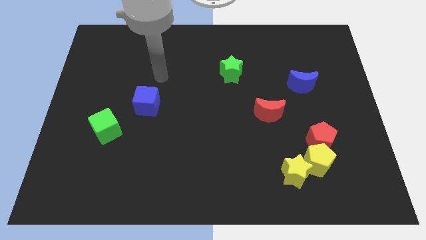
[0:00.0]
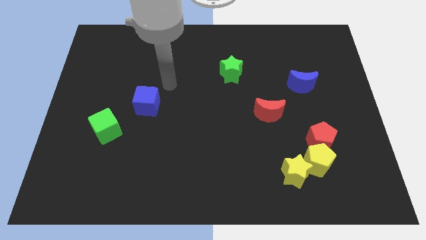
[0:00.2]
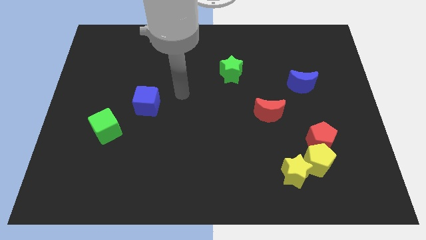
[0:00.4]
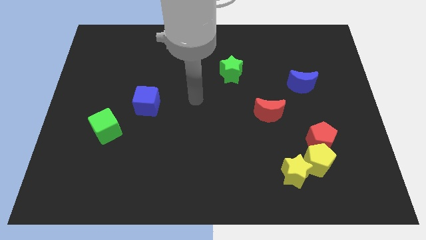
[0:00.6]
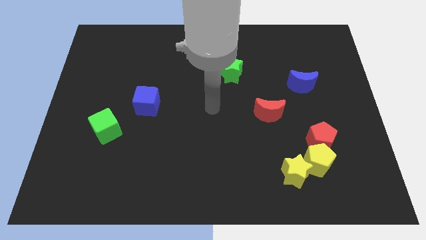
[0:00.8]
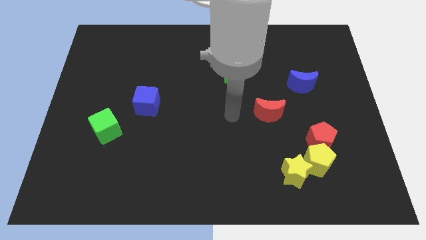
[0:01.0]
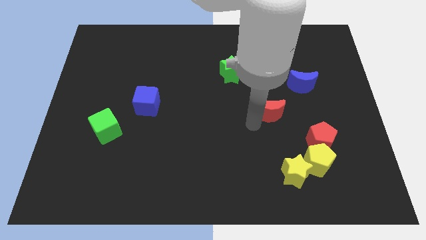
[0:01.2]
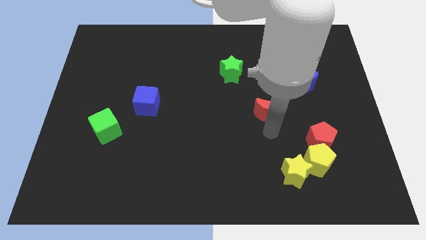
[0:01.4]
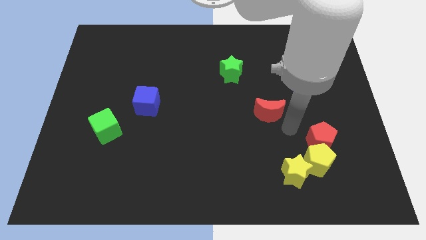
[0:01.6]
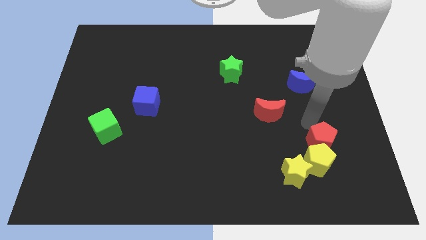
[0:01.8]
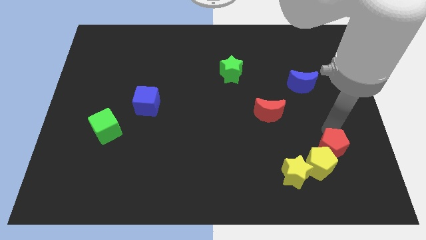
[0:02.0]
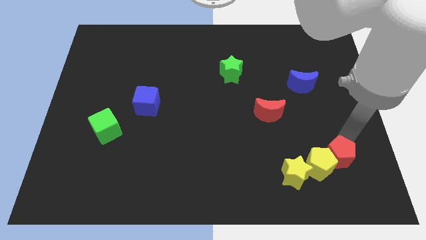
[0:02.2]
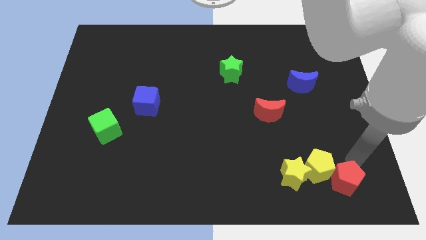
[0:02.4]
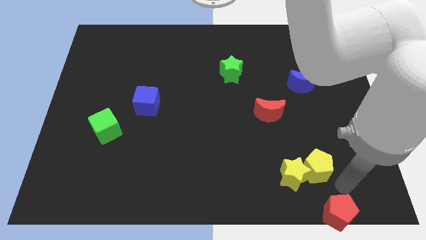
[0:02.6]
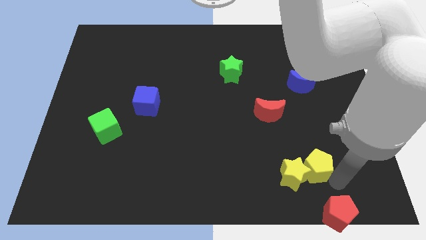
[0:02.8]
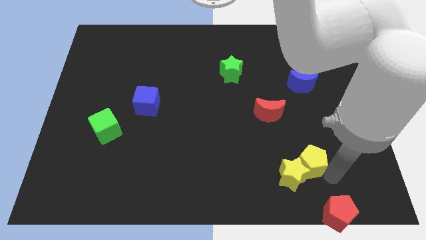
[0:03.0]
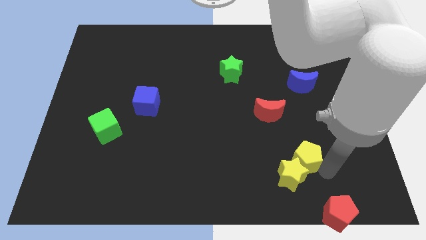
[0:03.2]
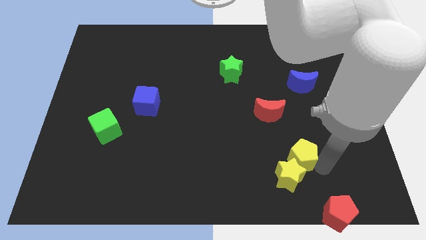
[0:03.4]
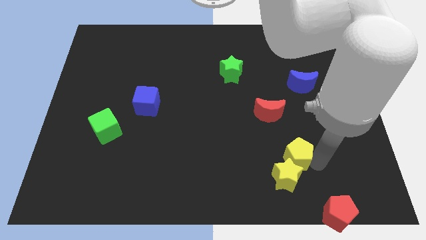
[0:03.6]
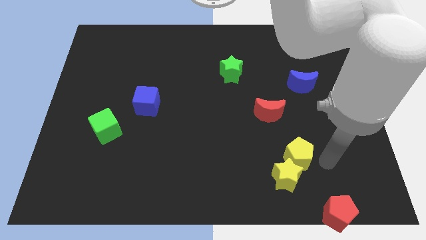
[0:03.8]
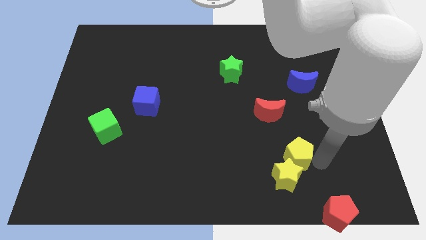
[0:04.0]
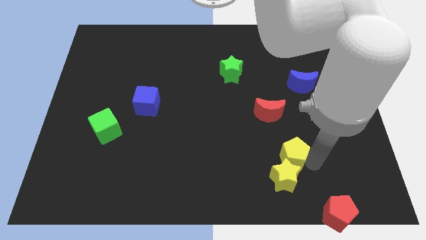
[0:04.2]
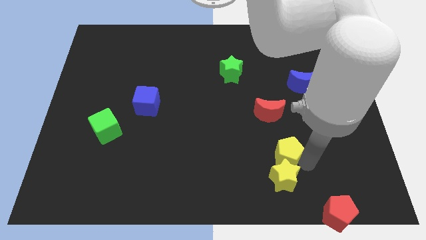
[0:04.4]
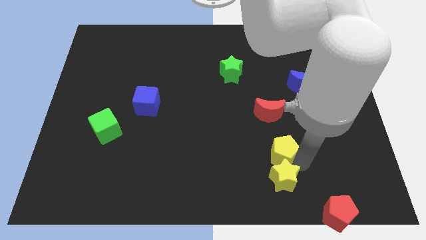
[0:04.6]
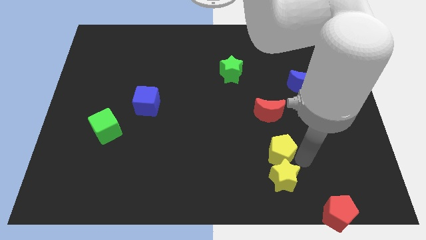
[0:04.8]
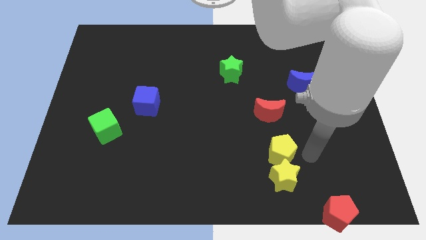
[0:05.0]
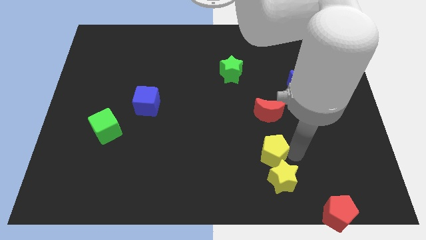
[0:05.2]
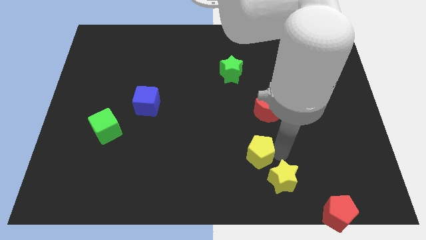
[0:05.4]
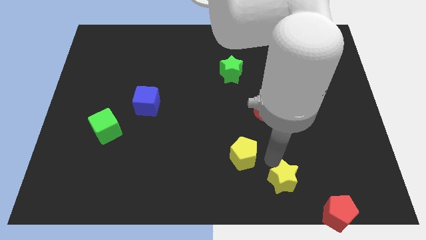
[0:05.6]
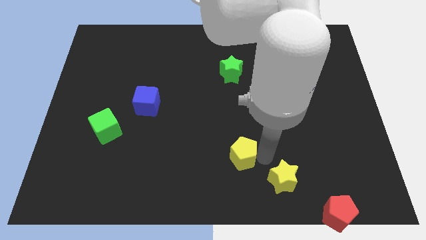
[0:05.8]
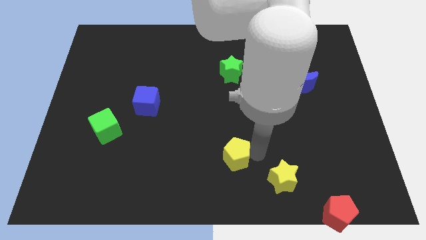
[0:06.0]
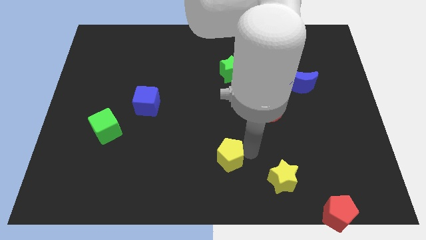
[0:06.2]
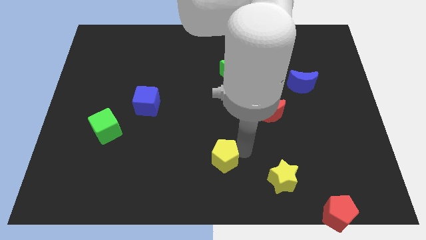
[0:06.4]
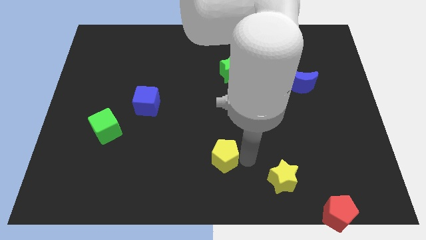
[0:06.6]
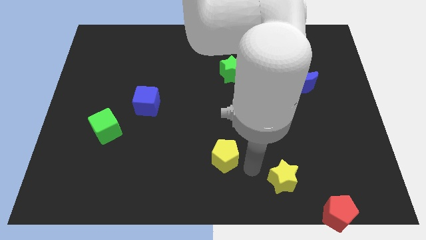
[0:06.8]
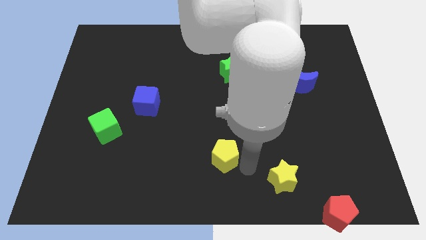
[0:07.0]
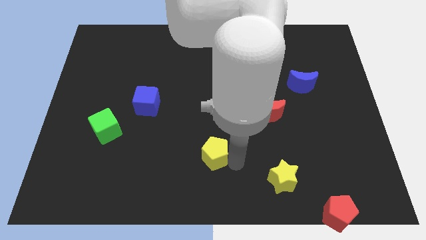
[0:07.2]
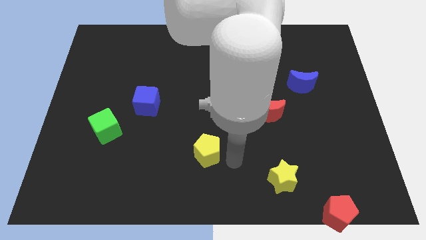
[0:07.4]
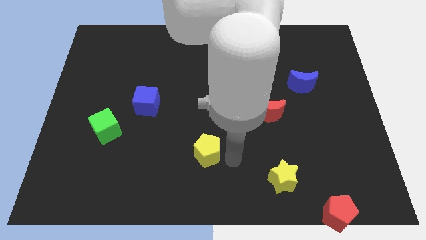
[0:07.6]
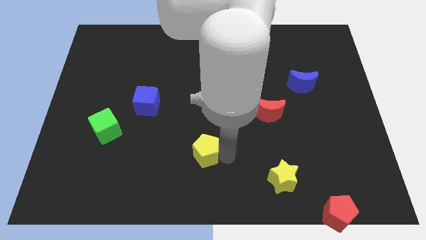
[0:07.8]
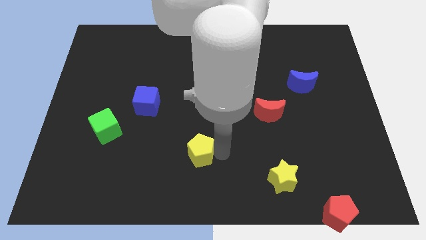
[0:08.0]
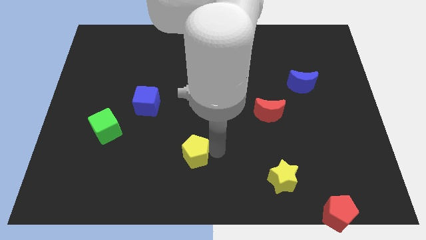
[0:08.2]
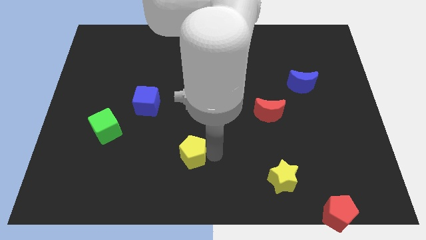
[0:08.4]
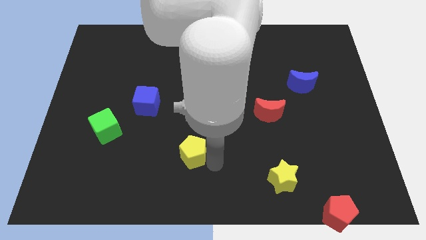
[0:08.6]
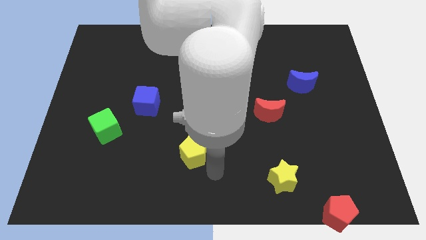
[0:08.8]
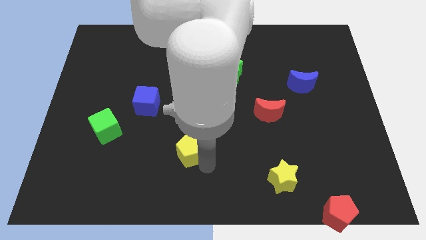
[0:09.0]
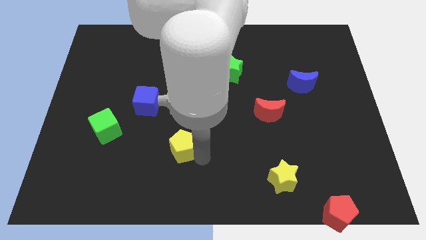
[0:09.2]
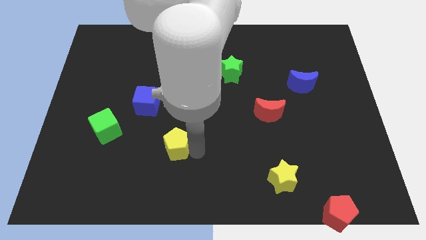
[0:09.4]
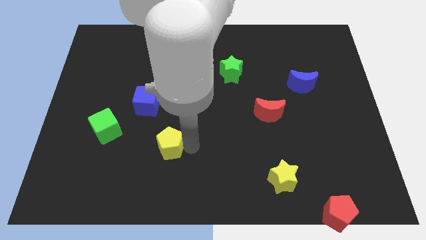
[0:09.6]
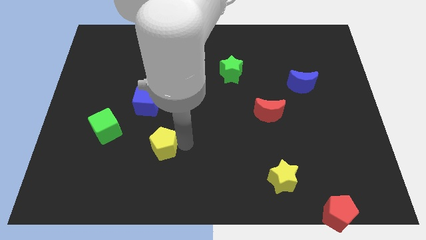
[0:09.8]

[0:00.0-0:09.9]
put the yellow pentagon to the bottom of the blue cube

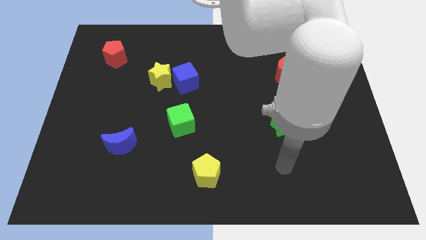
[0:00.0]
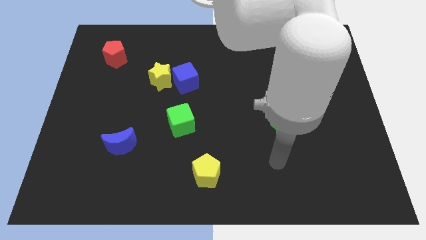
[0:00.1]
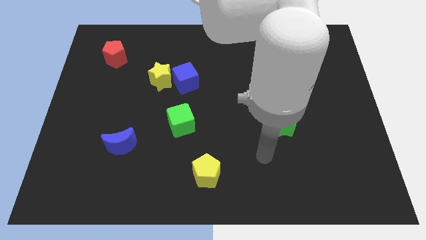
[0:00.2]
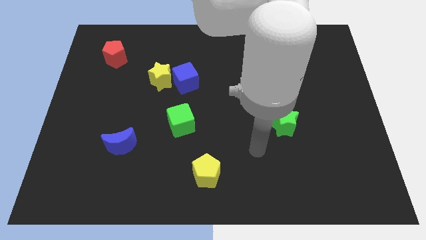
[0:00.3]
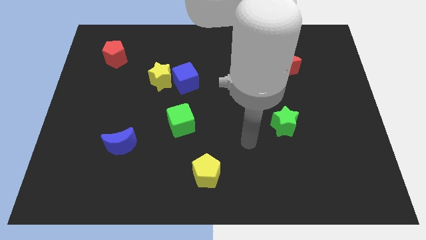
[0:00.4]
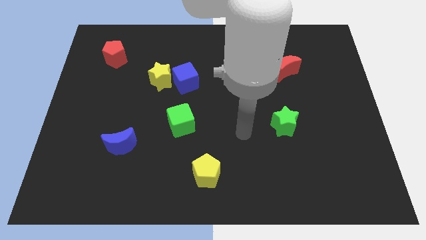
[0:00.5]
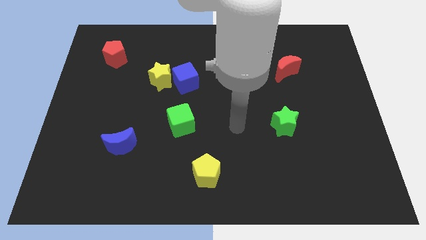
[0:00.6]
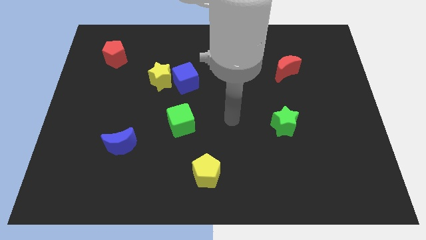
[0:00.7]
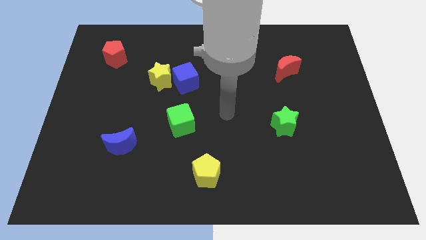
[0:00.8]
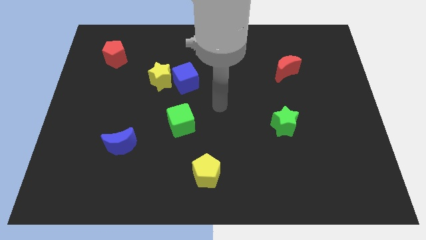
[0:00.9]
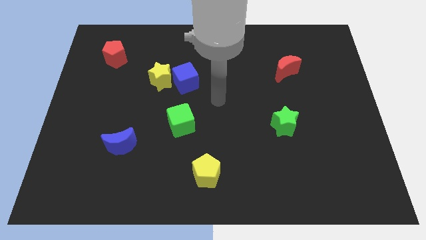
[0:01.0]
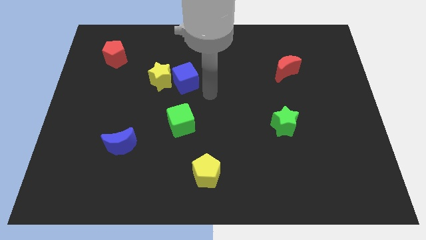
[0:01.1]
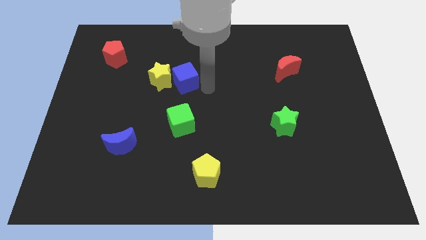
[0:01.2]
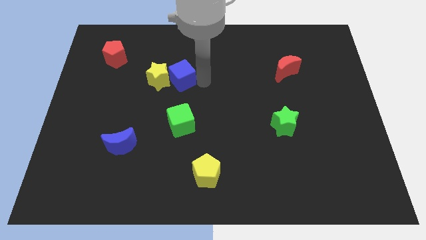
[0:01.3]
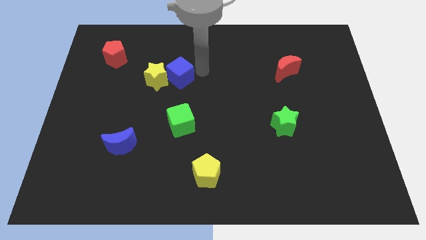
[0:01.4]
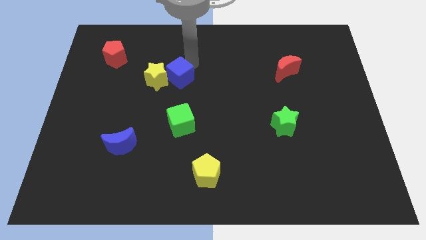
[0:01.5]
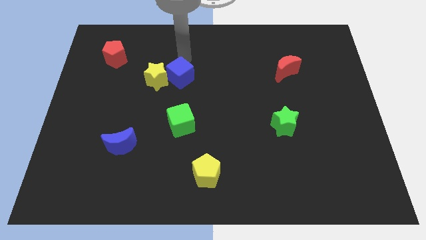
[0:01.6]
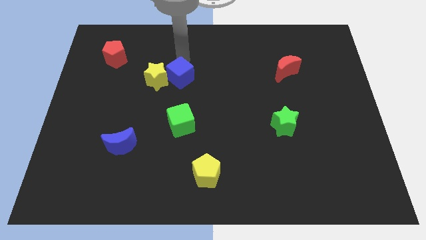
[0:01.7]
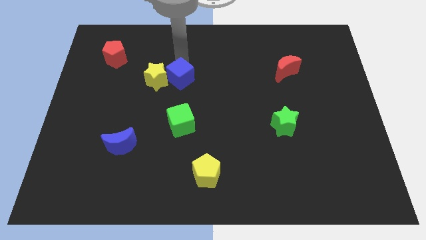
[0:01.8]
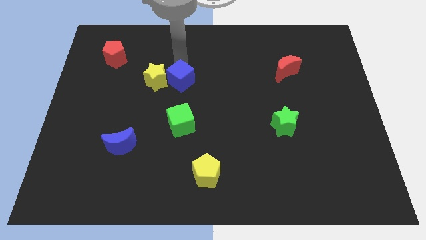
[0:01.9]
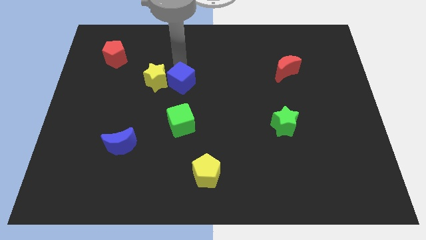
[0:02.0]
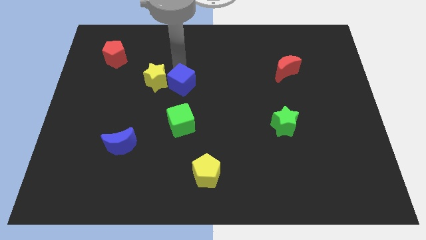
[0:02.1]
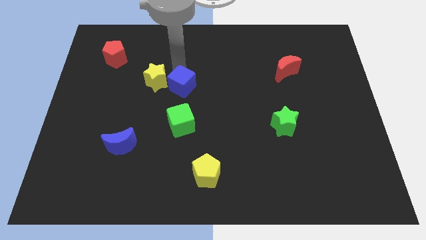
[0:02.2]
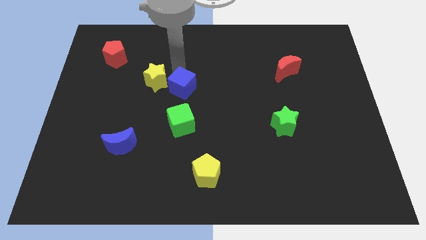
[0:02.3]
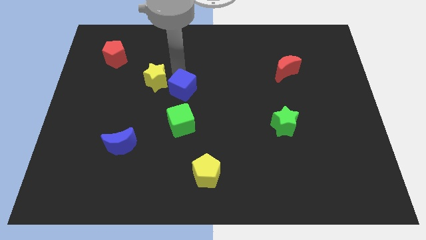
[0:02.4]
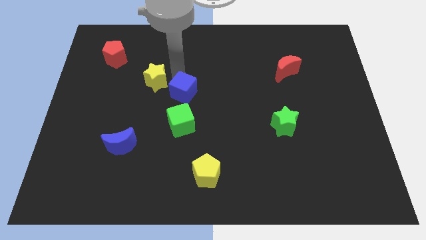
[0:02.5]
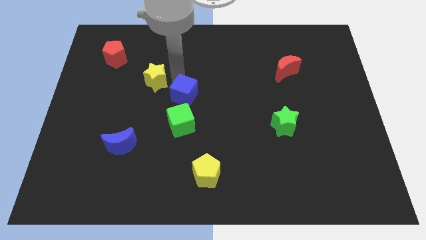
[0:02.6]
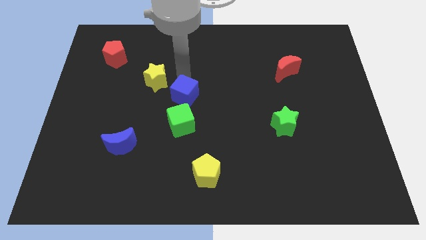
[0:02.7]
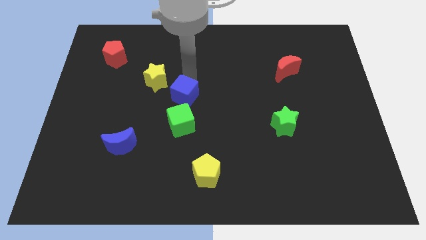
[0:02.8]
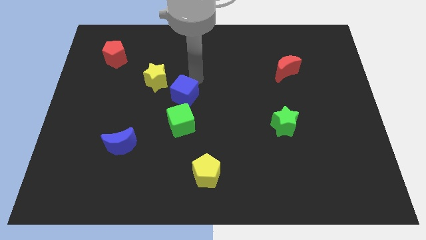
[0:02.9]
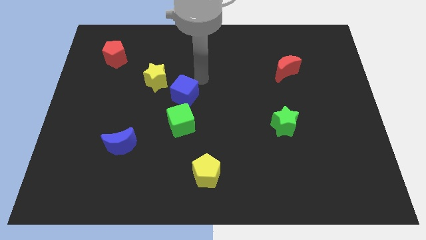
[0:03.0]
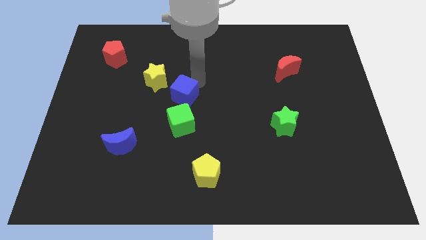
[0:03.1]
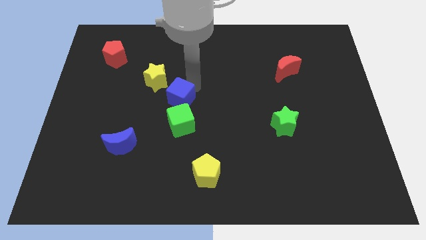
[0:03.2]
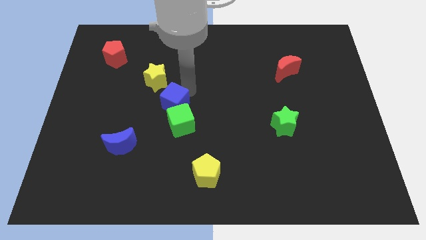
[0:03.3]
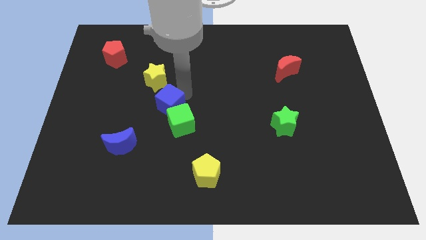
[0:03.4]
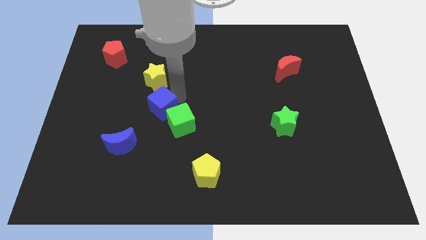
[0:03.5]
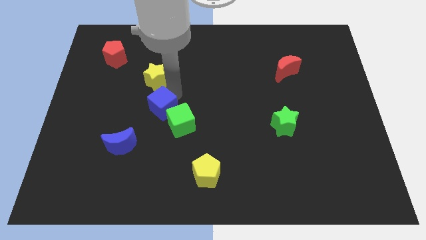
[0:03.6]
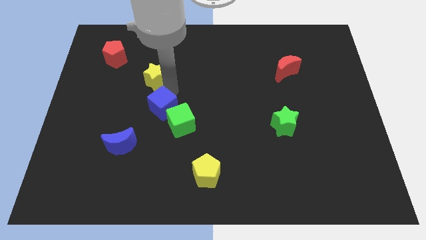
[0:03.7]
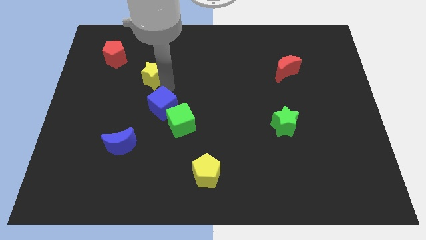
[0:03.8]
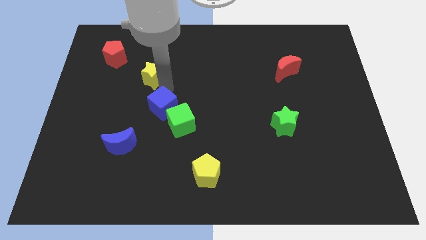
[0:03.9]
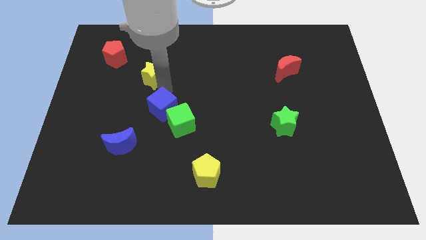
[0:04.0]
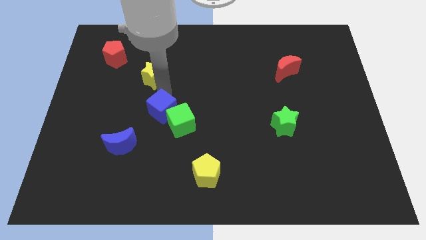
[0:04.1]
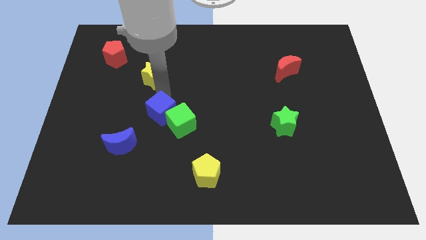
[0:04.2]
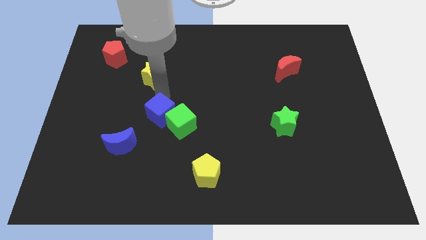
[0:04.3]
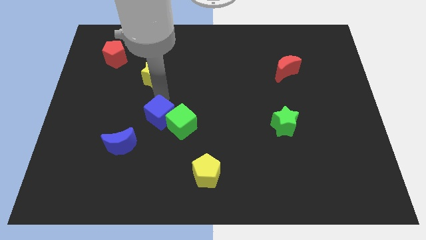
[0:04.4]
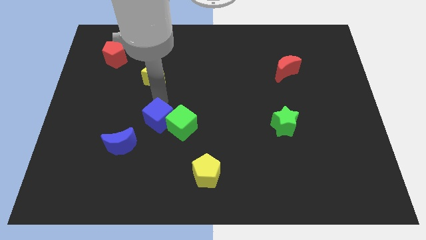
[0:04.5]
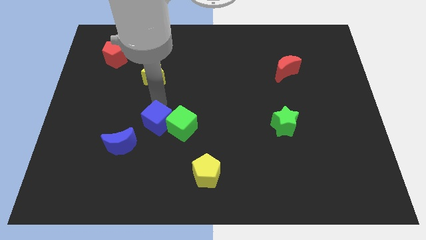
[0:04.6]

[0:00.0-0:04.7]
push the blue cube diagonally down and to the left of the green cube
